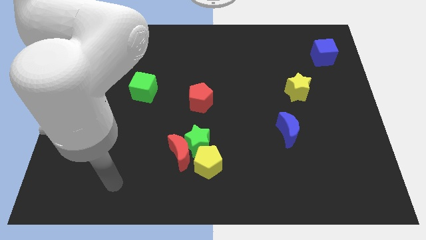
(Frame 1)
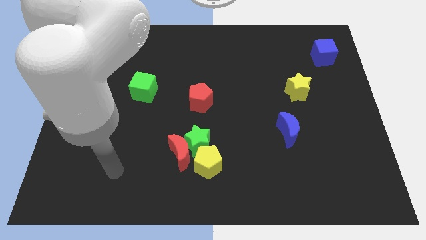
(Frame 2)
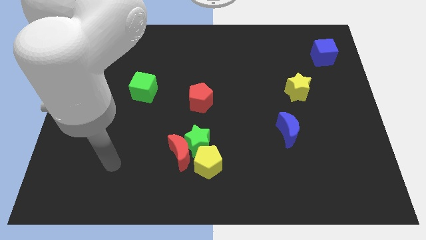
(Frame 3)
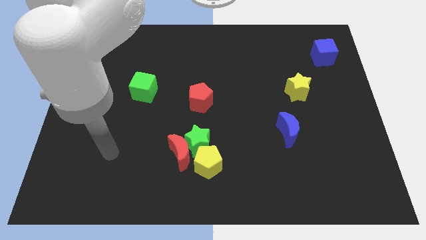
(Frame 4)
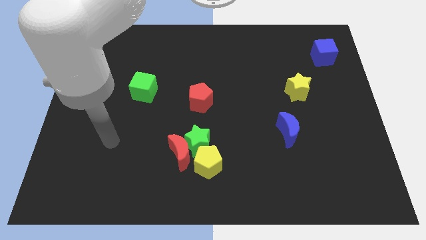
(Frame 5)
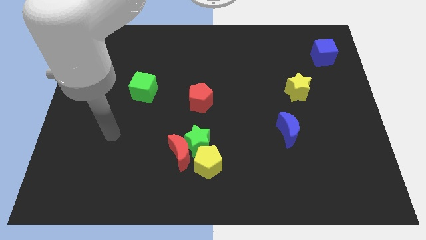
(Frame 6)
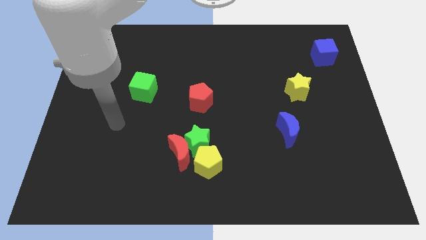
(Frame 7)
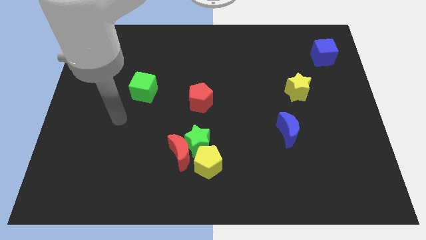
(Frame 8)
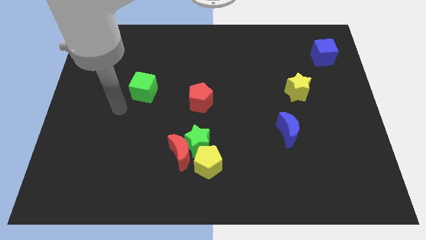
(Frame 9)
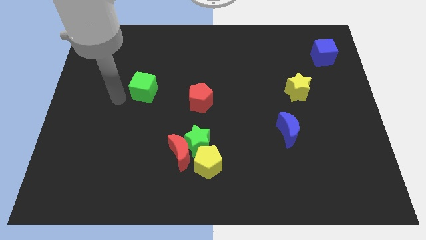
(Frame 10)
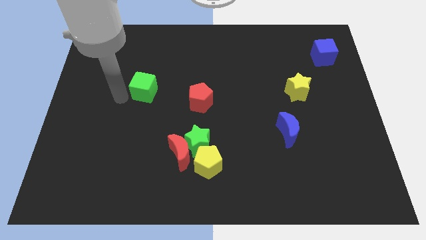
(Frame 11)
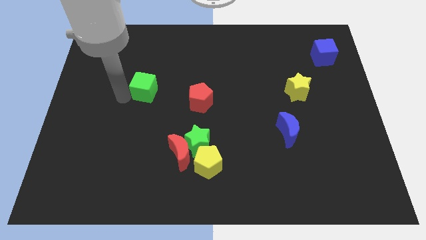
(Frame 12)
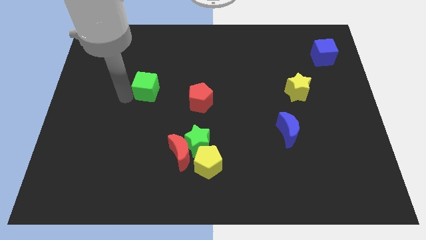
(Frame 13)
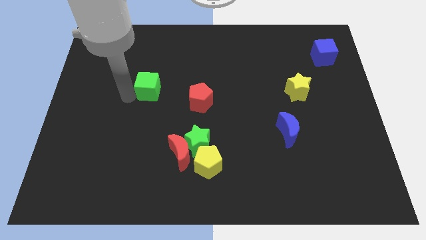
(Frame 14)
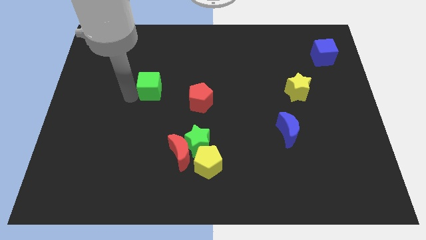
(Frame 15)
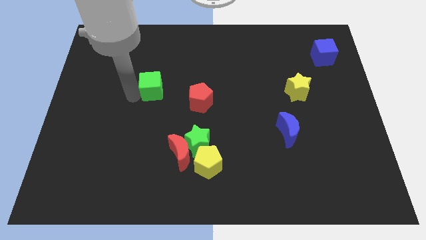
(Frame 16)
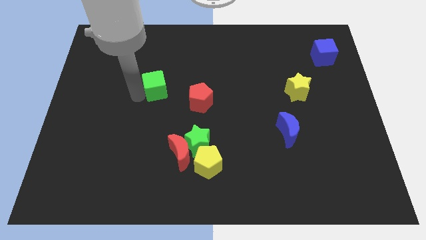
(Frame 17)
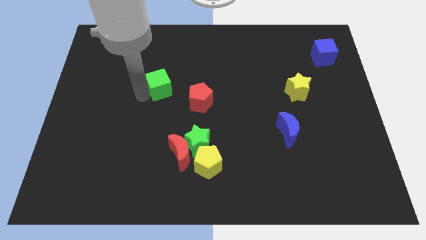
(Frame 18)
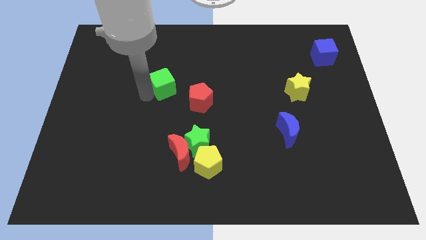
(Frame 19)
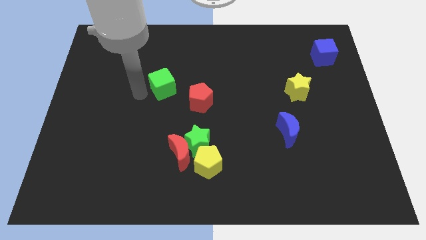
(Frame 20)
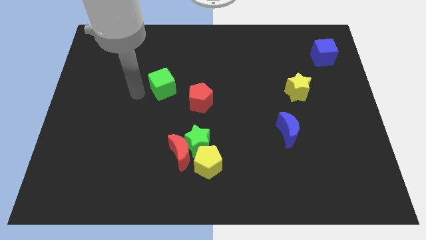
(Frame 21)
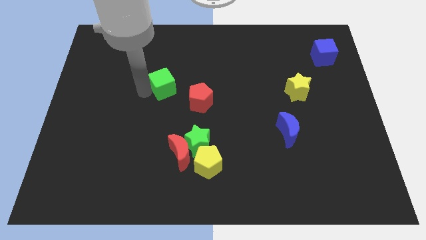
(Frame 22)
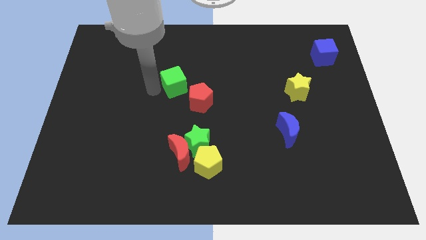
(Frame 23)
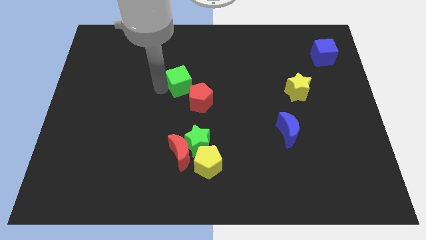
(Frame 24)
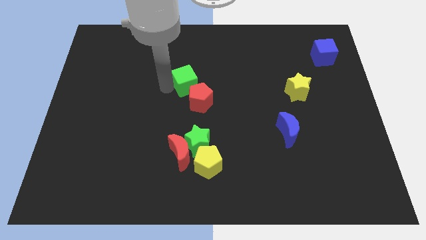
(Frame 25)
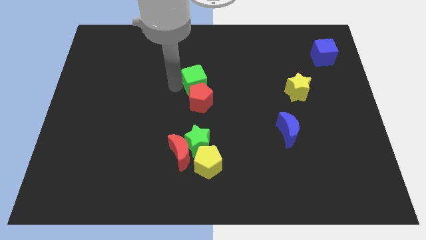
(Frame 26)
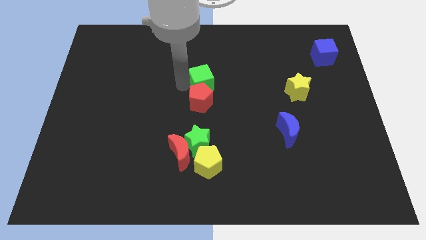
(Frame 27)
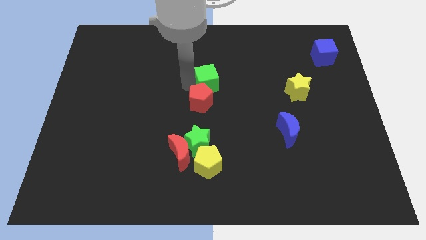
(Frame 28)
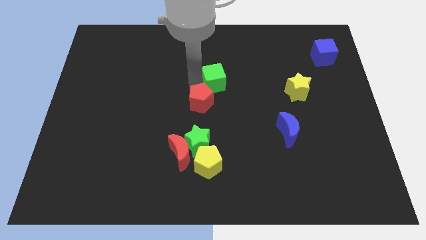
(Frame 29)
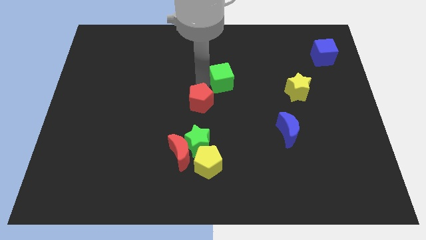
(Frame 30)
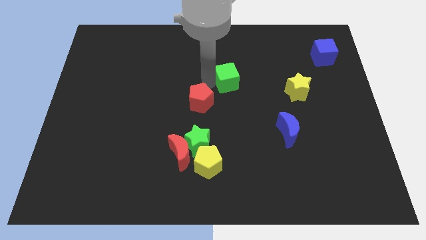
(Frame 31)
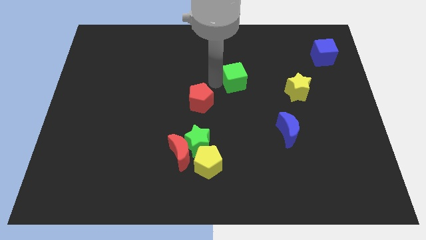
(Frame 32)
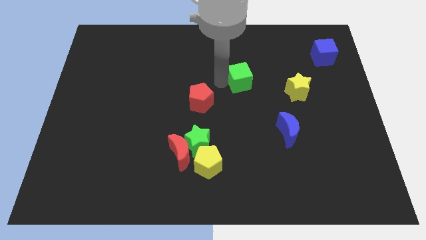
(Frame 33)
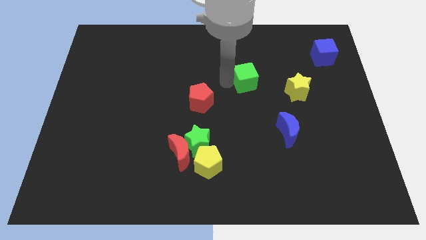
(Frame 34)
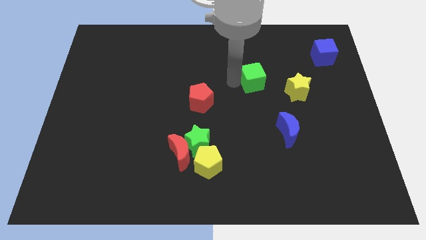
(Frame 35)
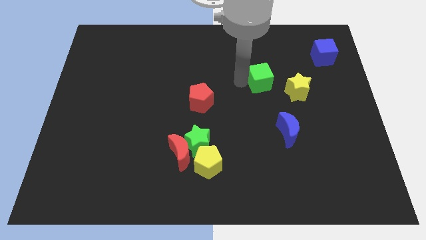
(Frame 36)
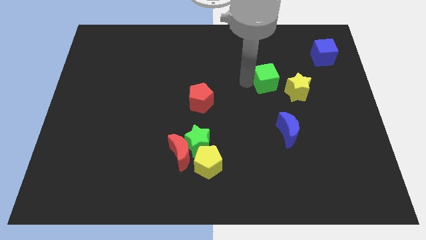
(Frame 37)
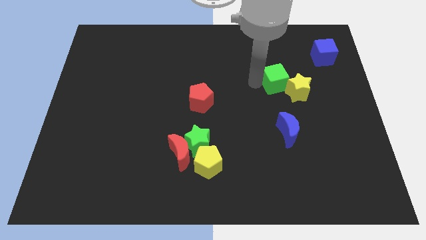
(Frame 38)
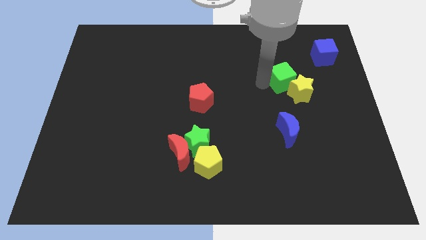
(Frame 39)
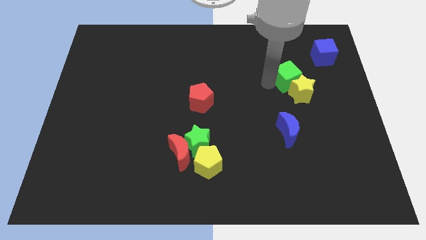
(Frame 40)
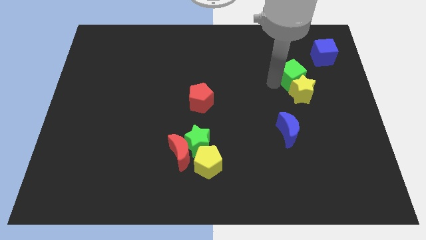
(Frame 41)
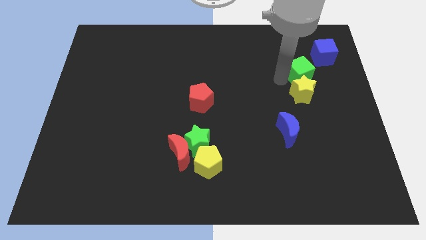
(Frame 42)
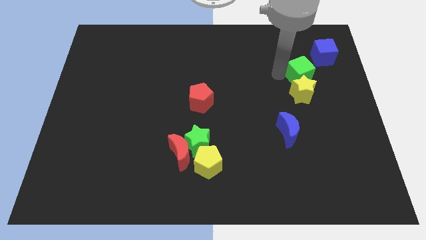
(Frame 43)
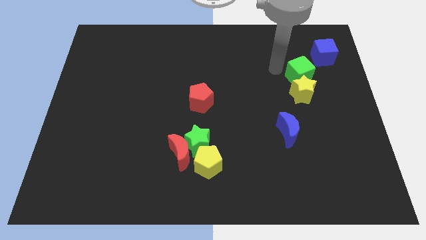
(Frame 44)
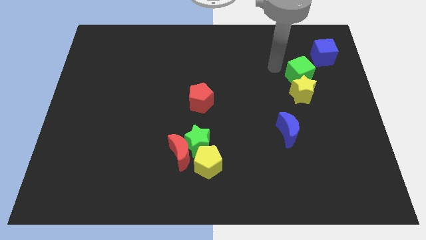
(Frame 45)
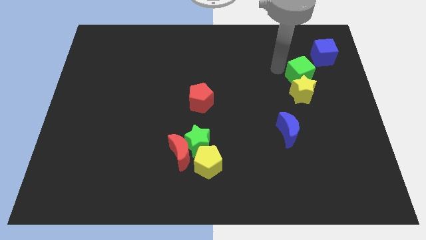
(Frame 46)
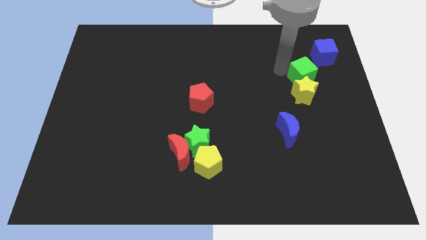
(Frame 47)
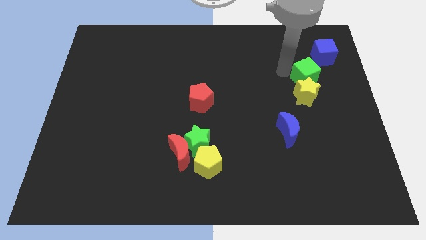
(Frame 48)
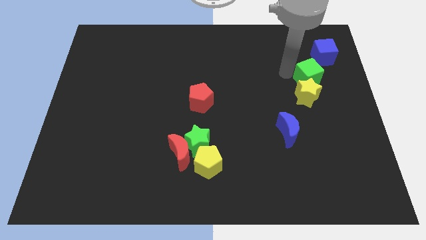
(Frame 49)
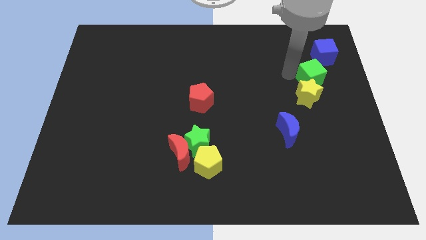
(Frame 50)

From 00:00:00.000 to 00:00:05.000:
move the green cube to the bottom side of the blue cube

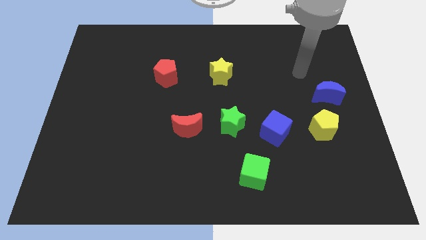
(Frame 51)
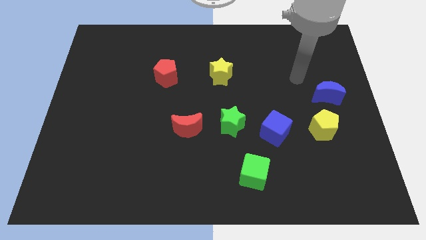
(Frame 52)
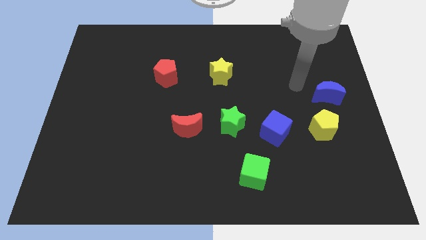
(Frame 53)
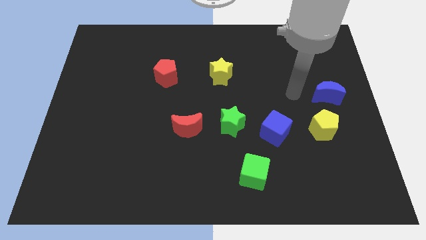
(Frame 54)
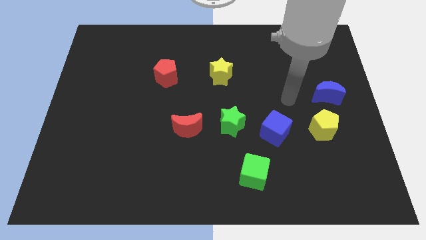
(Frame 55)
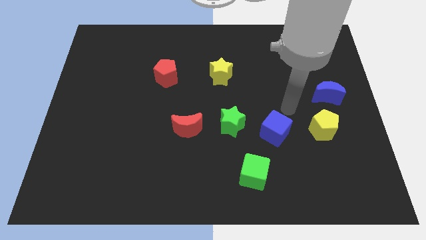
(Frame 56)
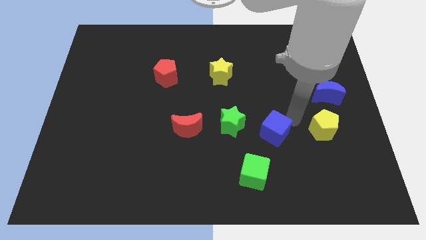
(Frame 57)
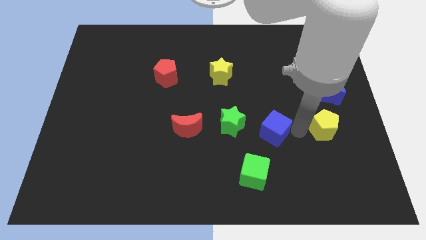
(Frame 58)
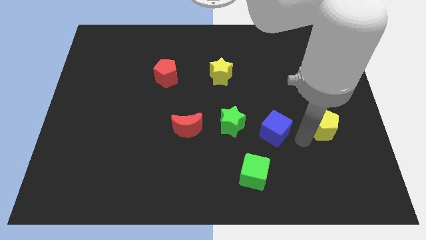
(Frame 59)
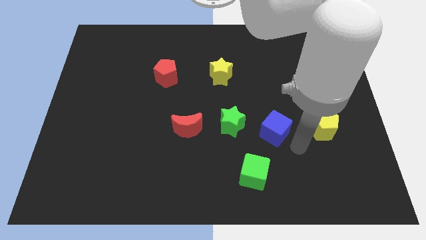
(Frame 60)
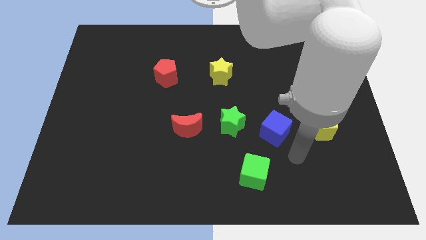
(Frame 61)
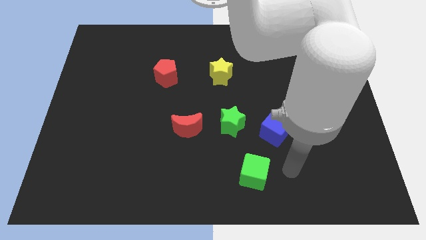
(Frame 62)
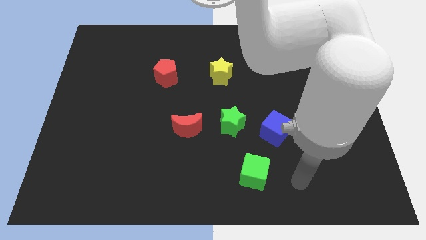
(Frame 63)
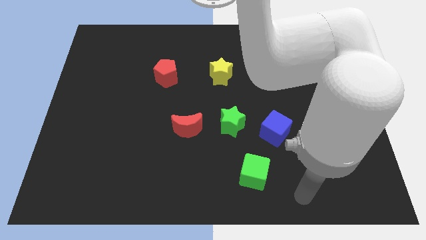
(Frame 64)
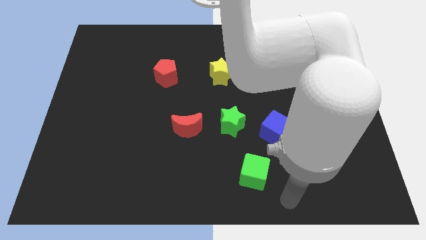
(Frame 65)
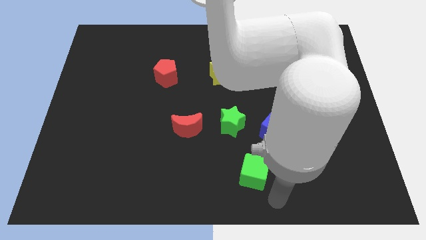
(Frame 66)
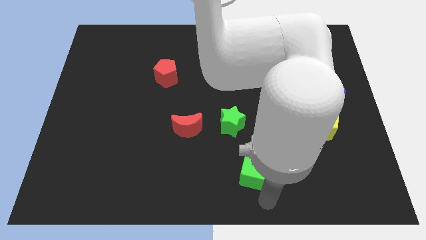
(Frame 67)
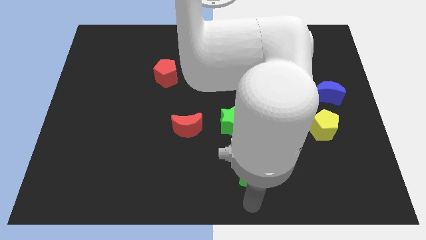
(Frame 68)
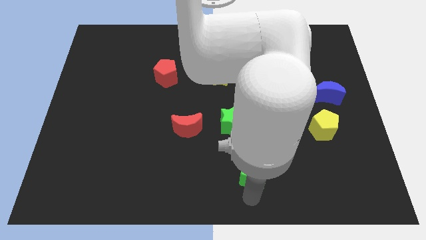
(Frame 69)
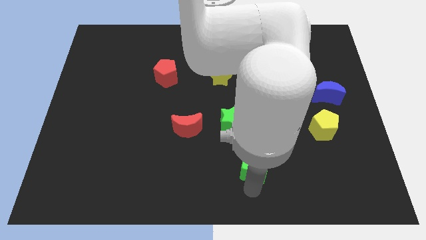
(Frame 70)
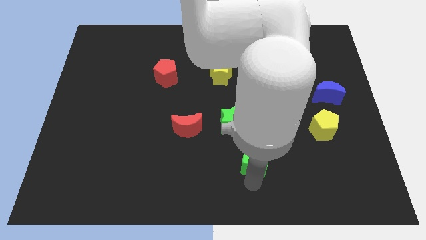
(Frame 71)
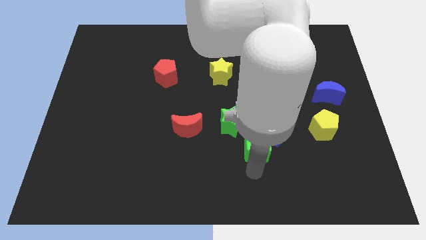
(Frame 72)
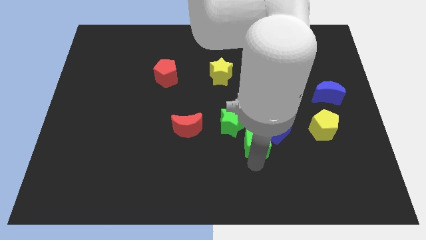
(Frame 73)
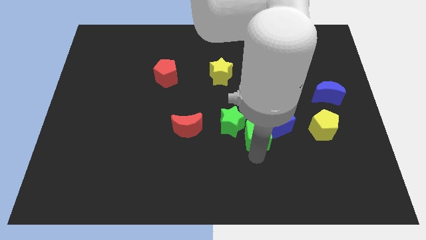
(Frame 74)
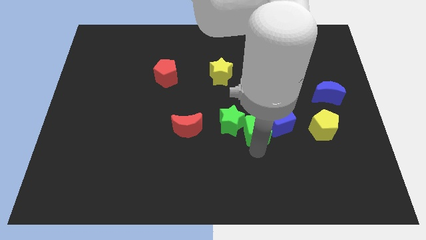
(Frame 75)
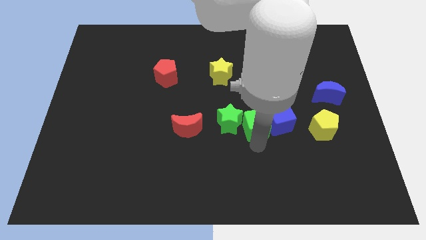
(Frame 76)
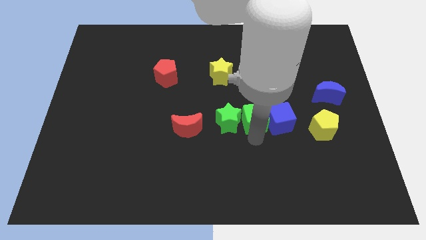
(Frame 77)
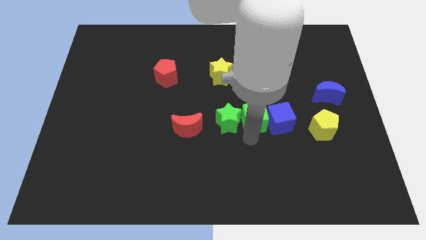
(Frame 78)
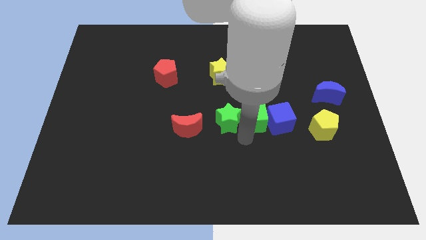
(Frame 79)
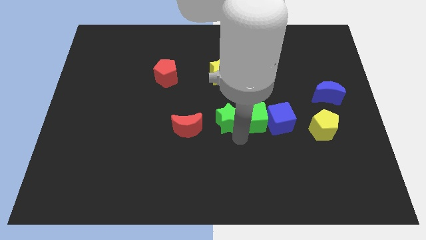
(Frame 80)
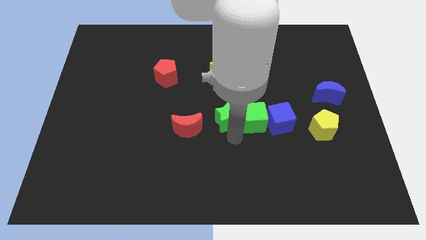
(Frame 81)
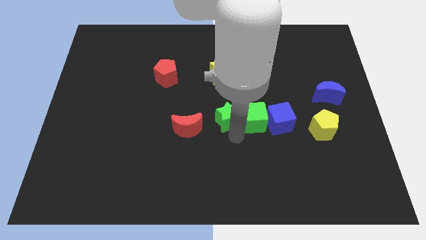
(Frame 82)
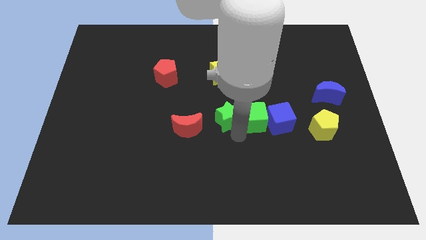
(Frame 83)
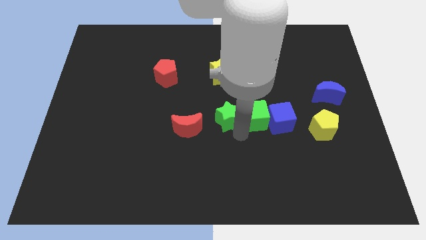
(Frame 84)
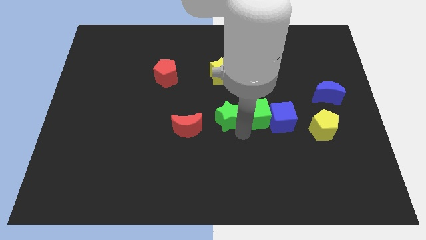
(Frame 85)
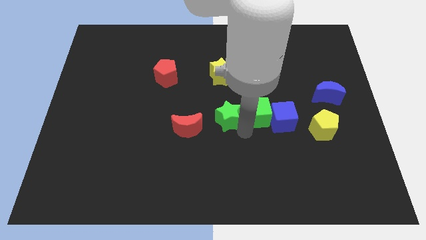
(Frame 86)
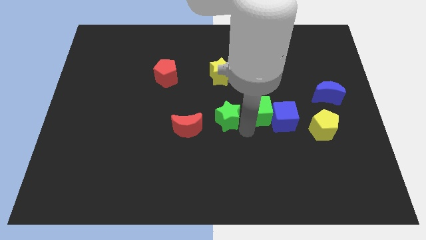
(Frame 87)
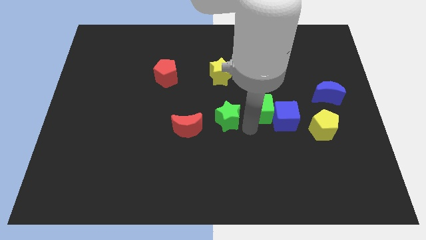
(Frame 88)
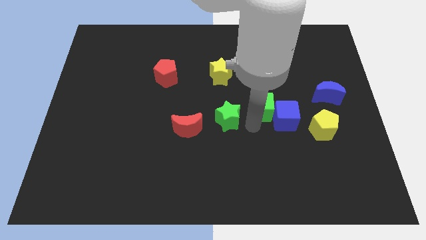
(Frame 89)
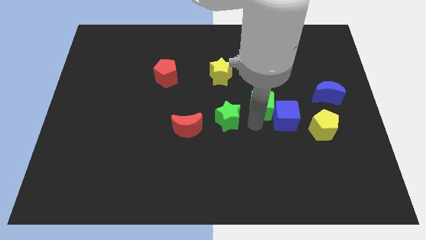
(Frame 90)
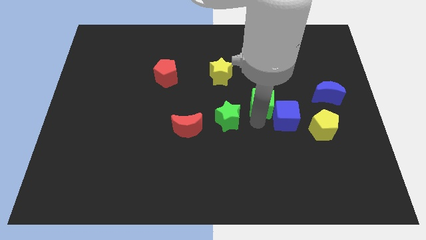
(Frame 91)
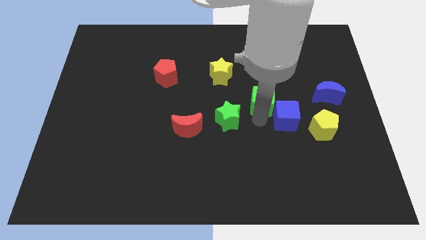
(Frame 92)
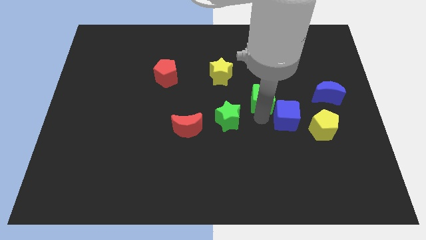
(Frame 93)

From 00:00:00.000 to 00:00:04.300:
push the green cube just left of the blue moon
